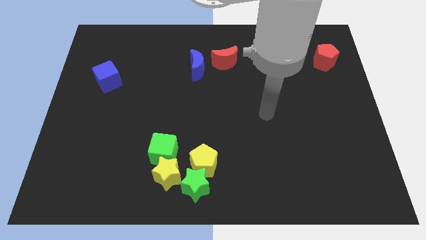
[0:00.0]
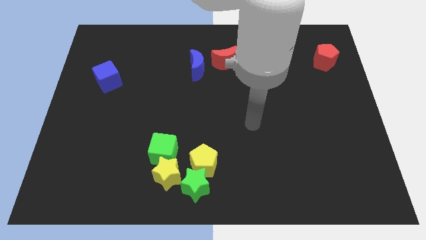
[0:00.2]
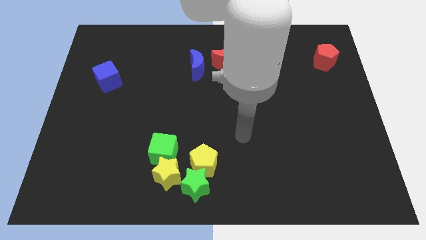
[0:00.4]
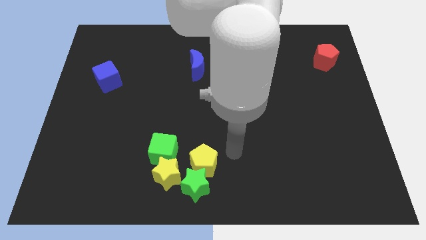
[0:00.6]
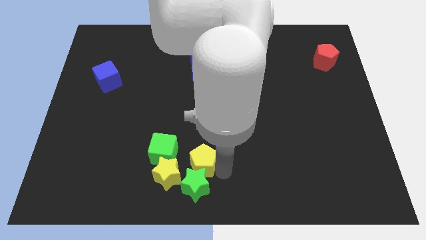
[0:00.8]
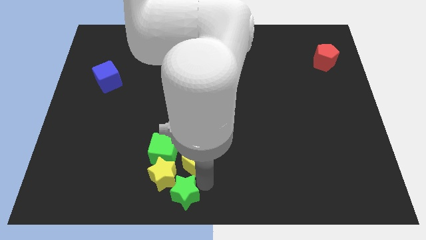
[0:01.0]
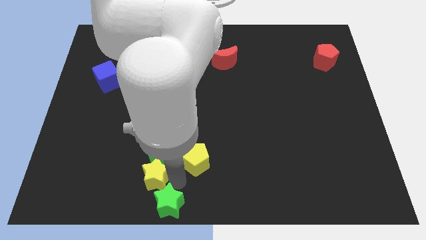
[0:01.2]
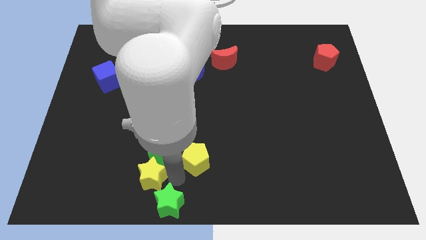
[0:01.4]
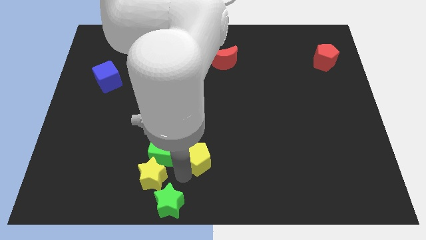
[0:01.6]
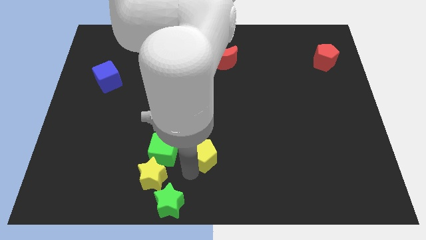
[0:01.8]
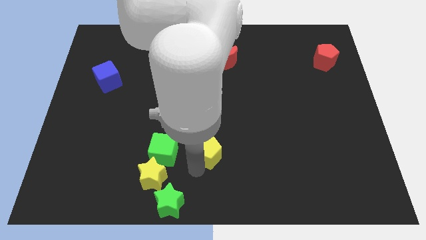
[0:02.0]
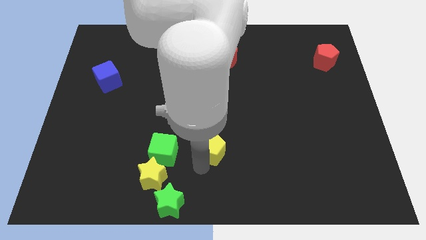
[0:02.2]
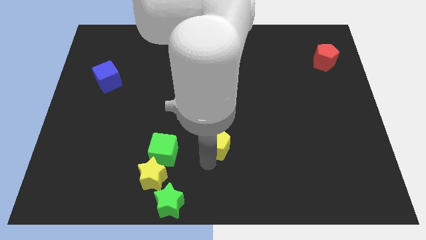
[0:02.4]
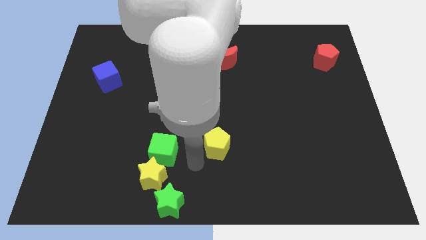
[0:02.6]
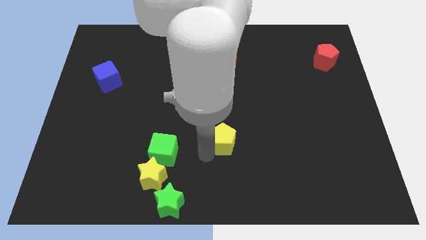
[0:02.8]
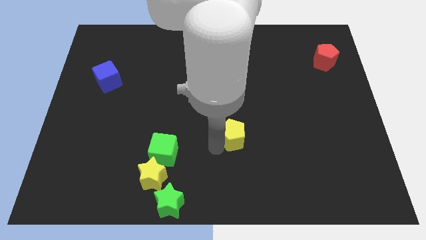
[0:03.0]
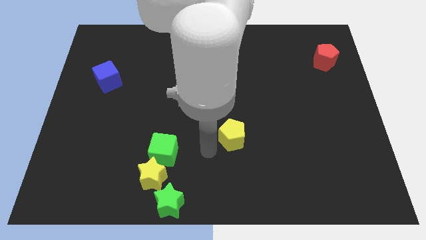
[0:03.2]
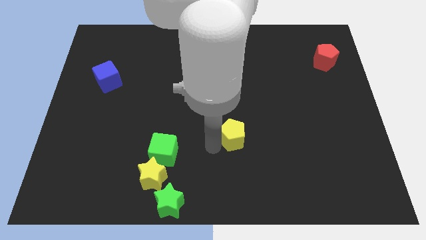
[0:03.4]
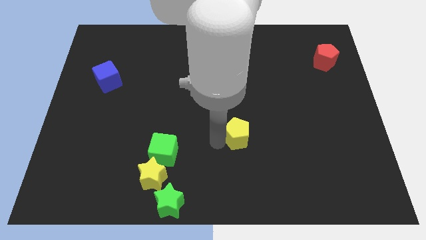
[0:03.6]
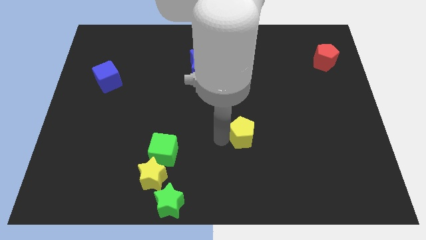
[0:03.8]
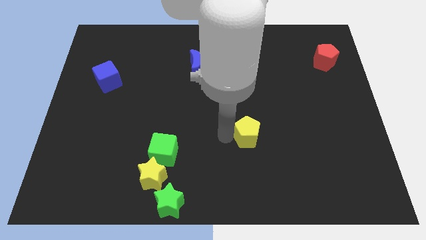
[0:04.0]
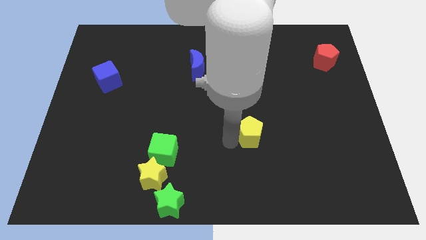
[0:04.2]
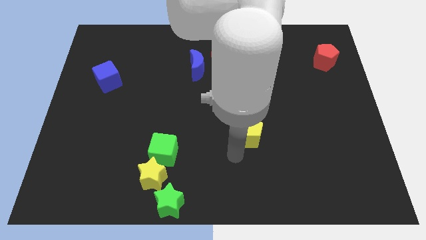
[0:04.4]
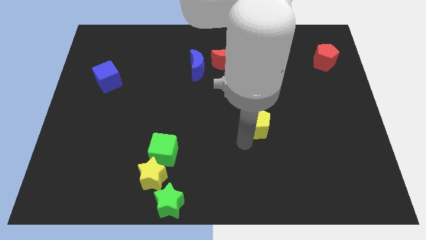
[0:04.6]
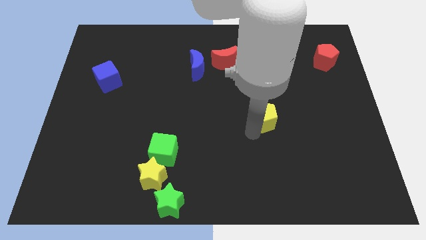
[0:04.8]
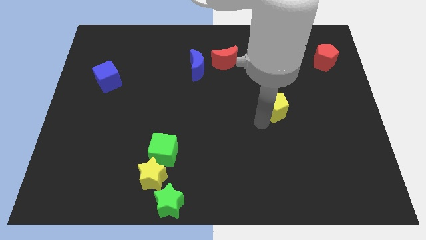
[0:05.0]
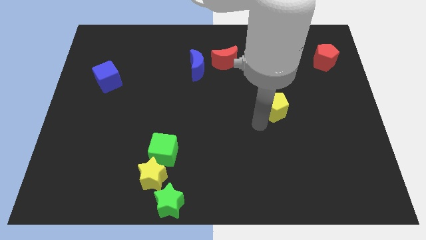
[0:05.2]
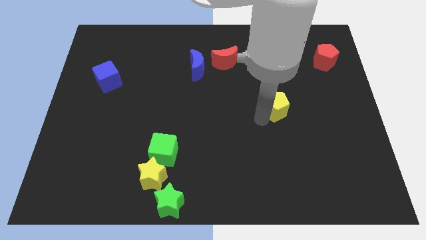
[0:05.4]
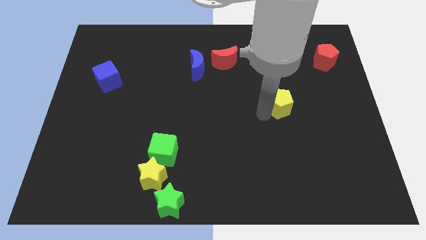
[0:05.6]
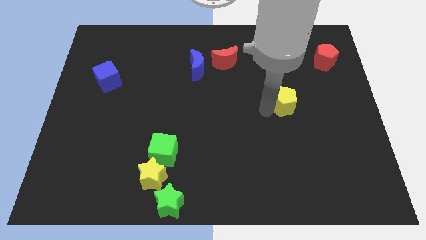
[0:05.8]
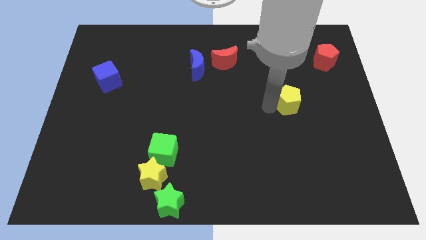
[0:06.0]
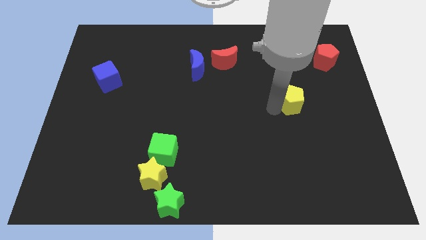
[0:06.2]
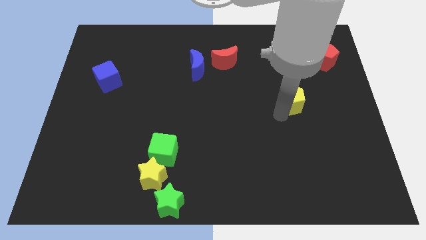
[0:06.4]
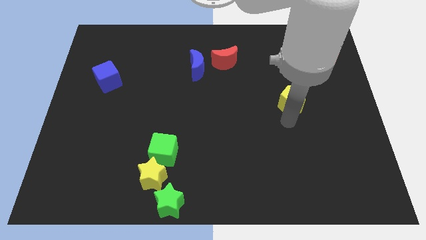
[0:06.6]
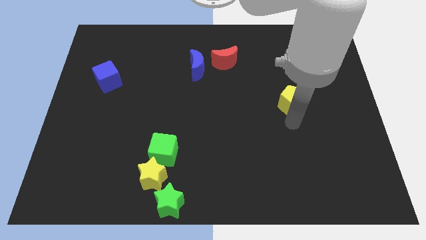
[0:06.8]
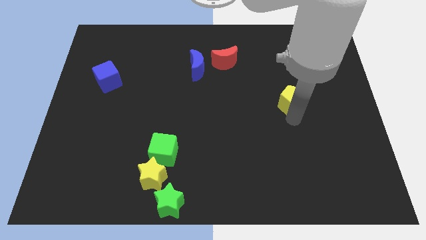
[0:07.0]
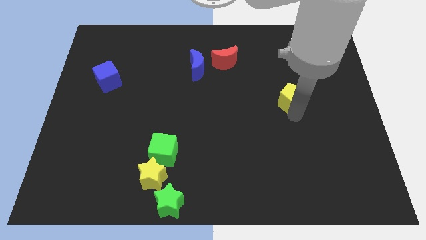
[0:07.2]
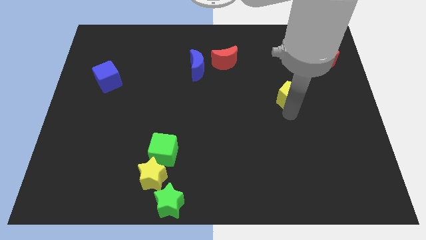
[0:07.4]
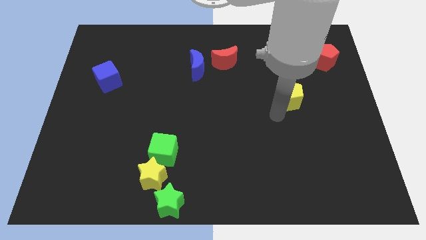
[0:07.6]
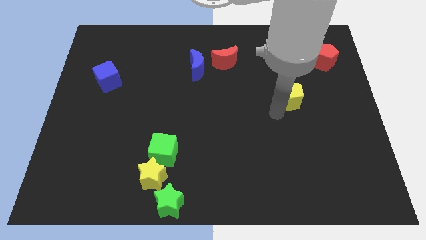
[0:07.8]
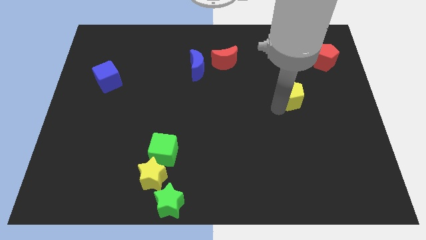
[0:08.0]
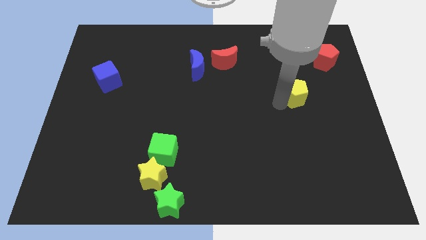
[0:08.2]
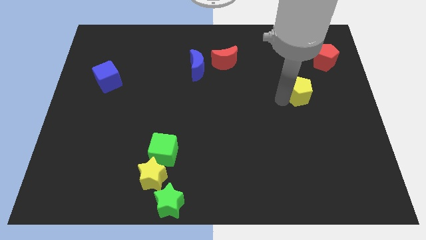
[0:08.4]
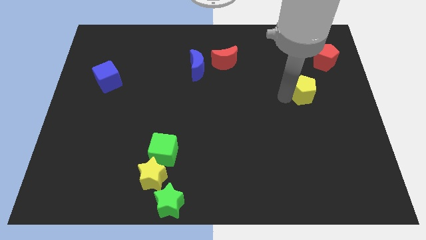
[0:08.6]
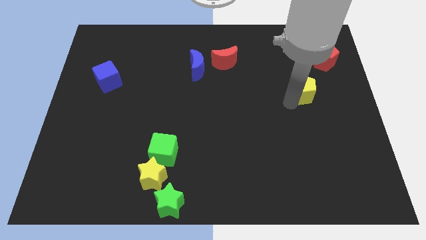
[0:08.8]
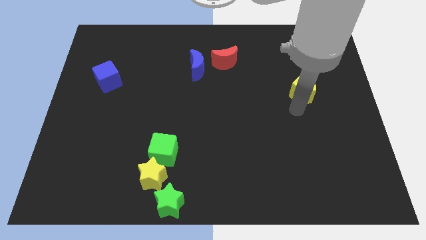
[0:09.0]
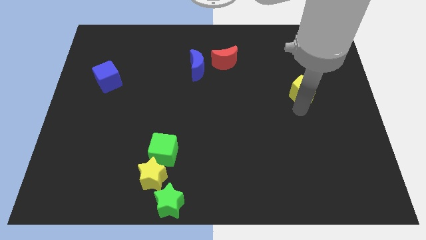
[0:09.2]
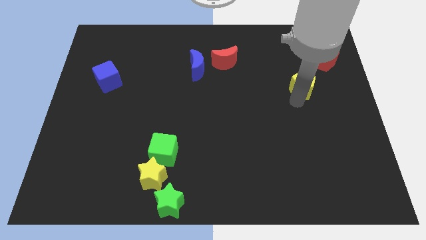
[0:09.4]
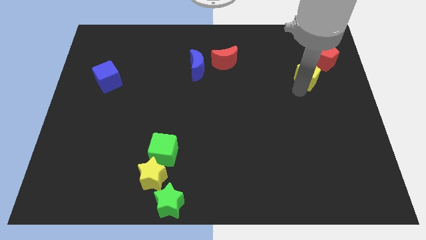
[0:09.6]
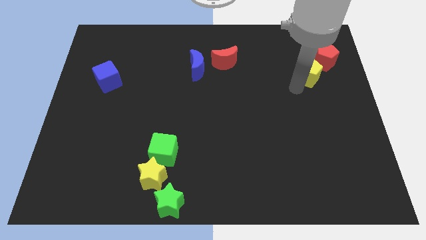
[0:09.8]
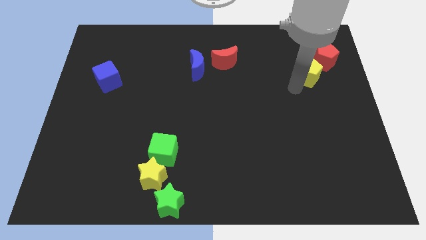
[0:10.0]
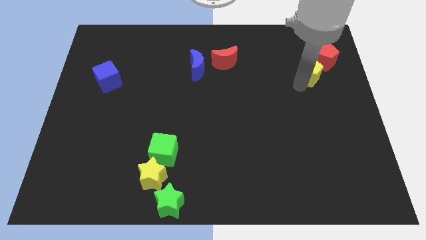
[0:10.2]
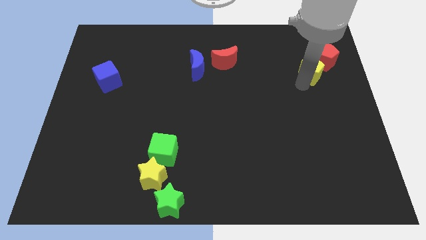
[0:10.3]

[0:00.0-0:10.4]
move the yellow pentagon towards the red pentagon

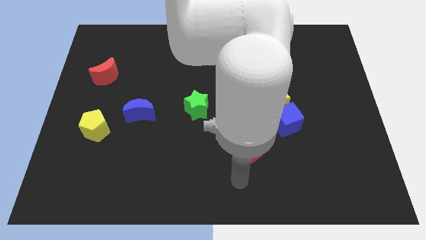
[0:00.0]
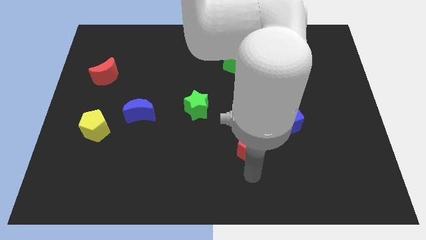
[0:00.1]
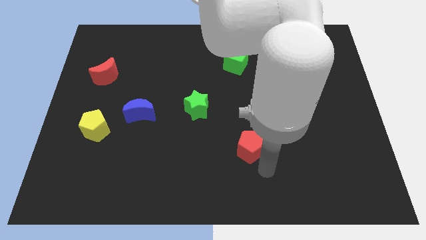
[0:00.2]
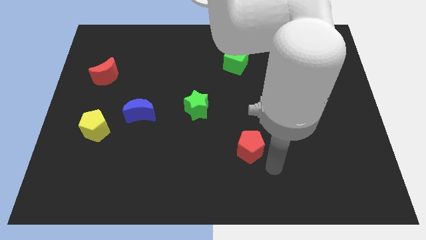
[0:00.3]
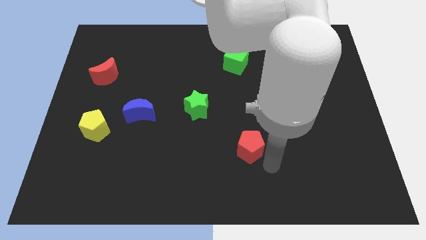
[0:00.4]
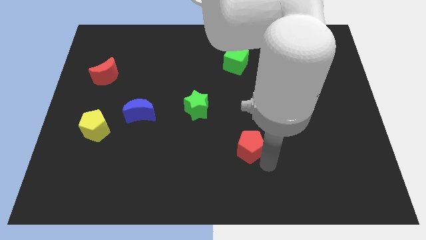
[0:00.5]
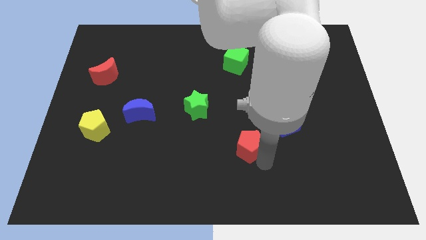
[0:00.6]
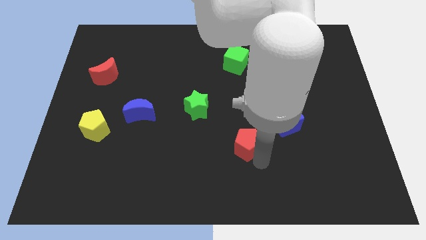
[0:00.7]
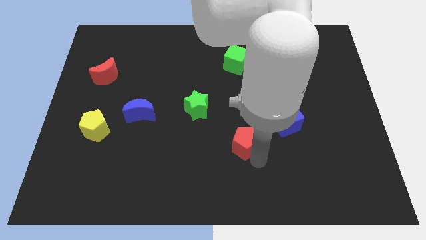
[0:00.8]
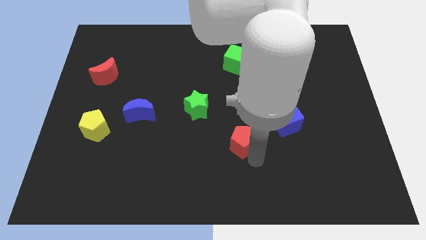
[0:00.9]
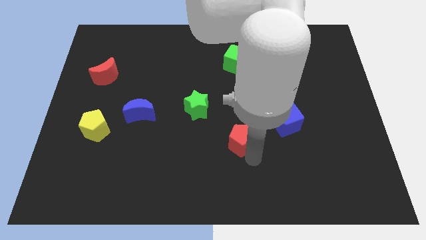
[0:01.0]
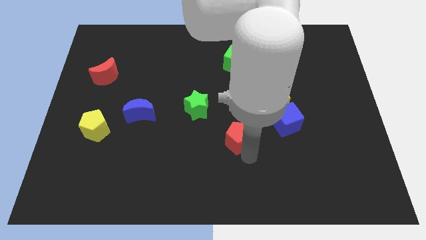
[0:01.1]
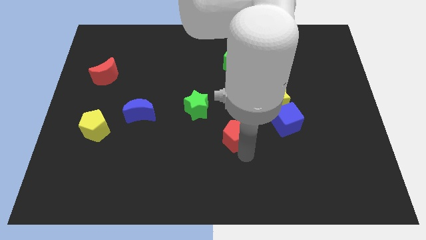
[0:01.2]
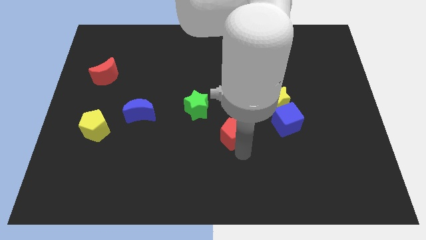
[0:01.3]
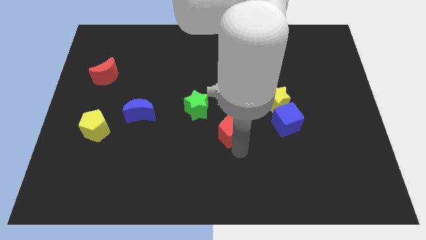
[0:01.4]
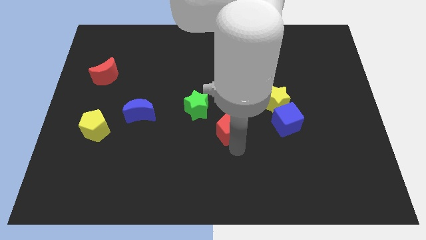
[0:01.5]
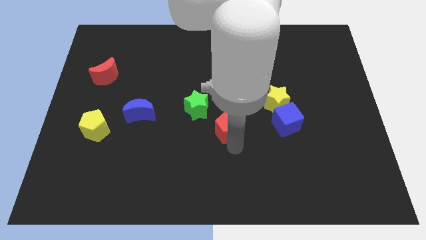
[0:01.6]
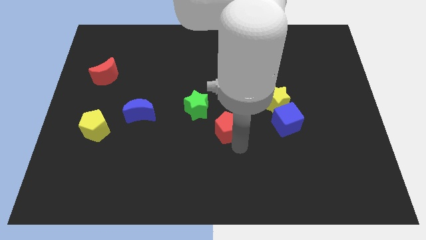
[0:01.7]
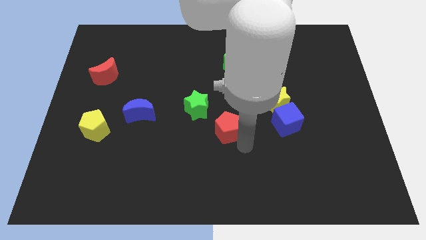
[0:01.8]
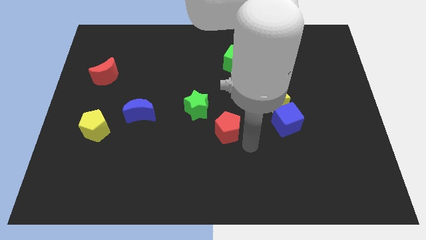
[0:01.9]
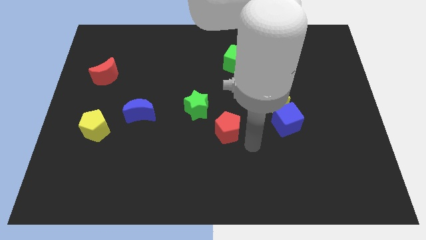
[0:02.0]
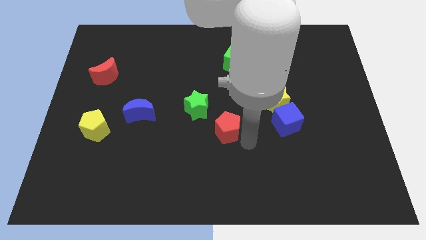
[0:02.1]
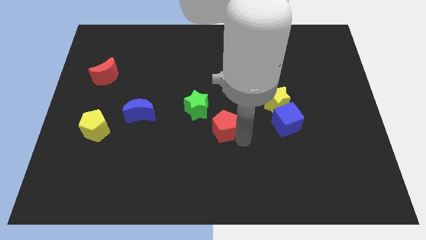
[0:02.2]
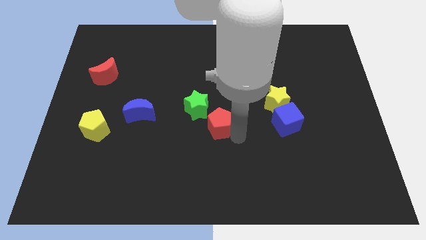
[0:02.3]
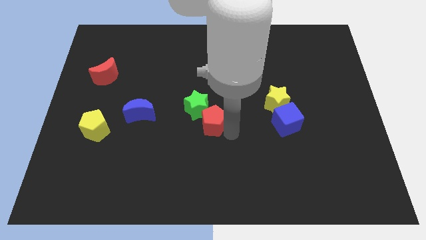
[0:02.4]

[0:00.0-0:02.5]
put the red pentagon next to the green star
